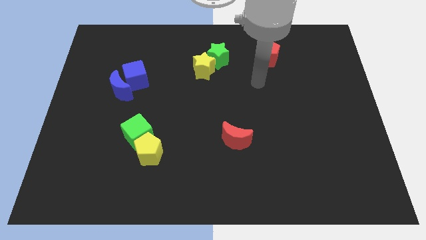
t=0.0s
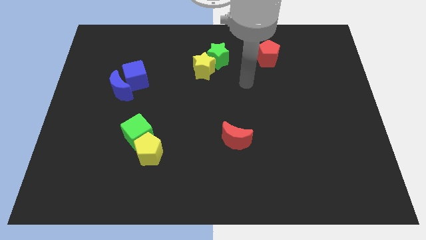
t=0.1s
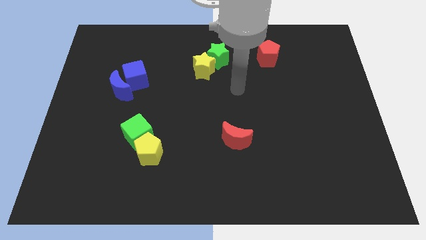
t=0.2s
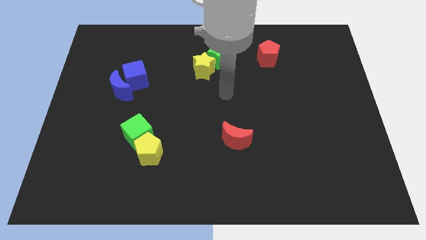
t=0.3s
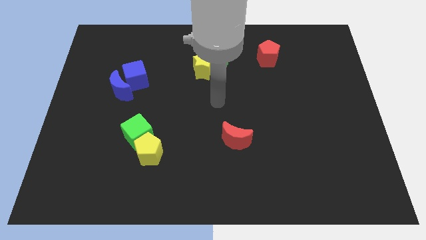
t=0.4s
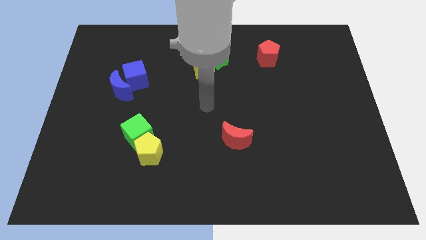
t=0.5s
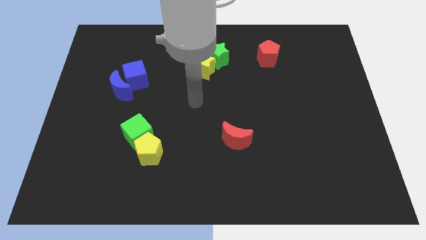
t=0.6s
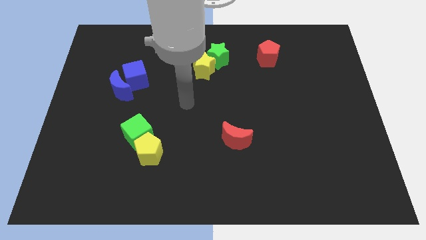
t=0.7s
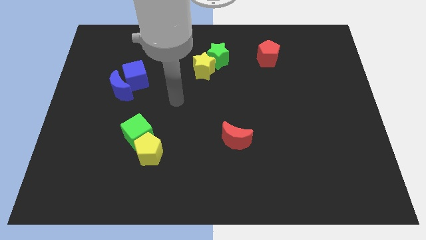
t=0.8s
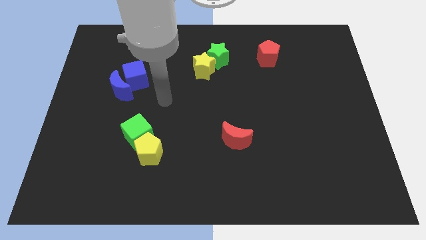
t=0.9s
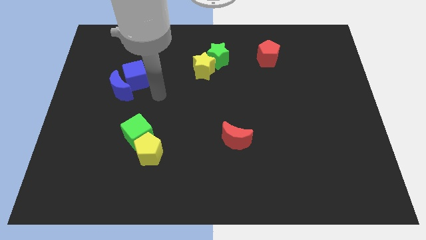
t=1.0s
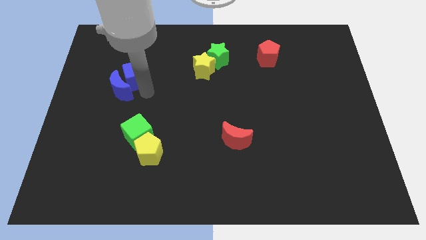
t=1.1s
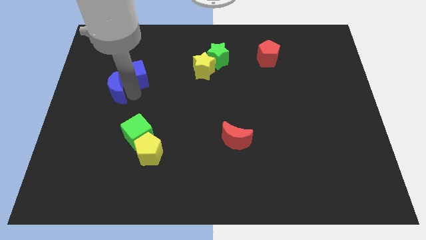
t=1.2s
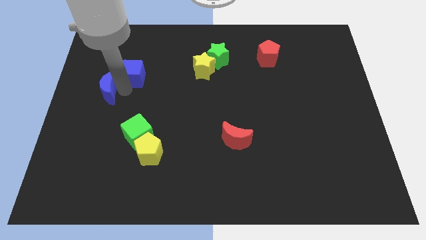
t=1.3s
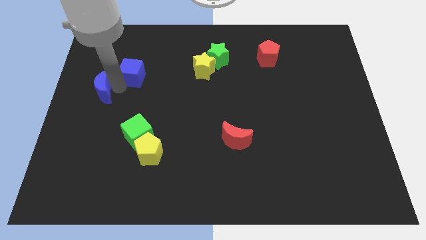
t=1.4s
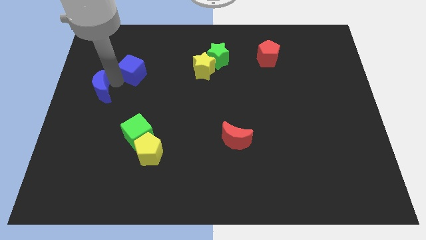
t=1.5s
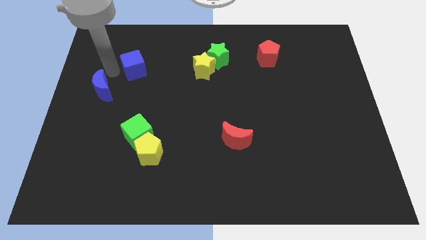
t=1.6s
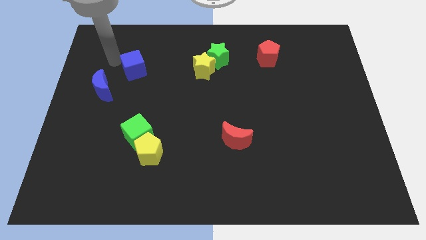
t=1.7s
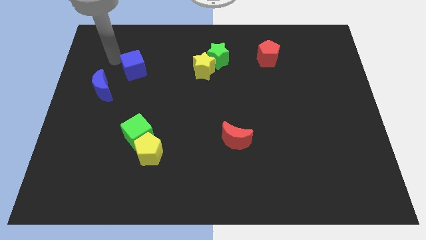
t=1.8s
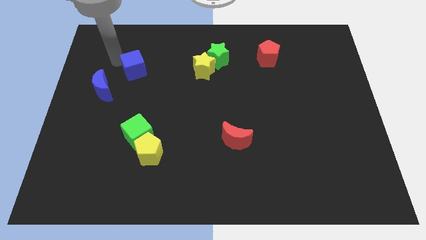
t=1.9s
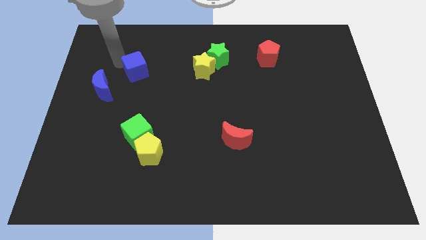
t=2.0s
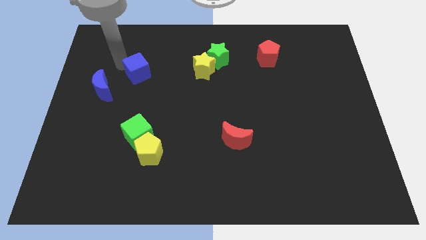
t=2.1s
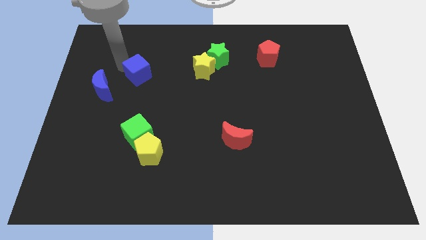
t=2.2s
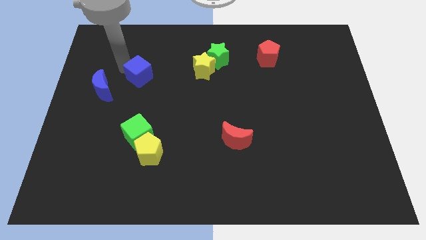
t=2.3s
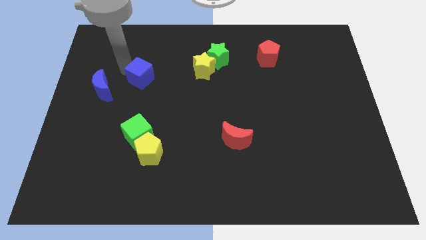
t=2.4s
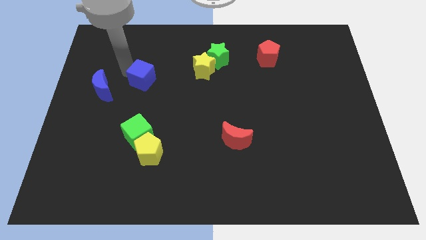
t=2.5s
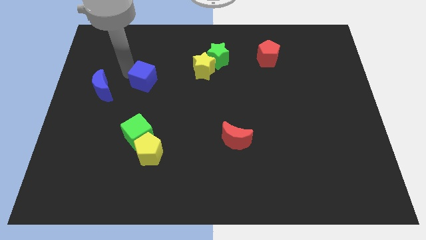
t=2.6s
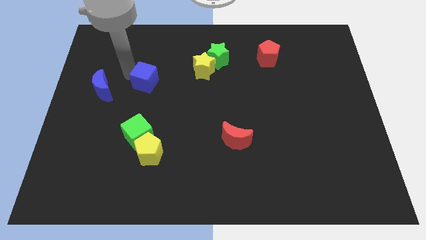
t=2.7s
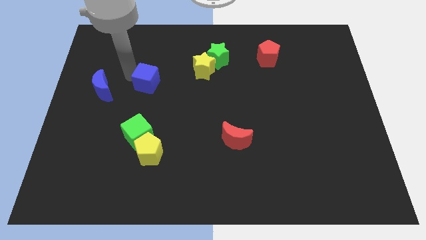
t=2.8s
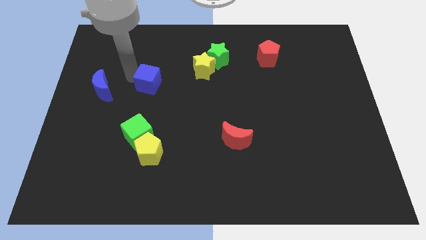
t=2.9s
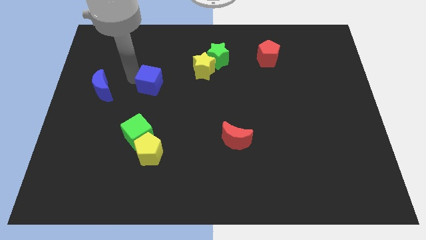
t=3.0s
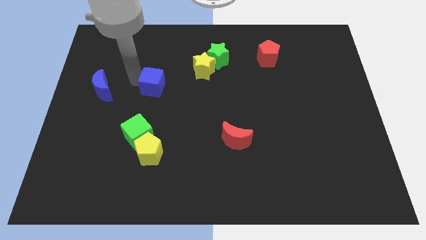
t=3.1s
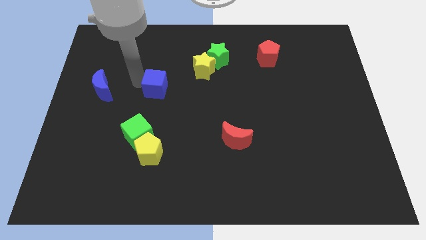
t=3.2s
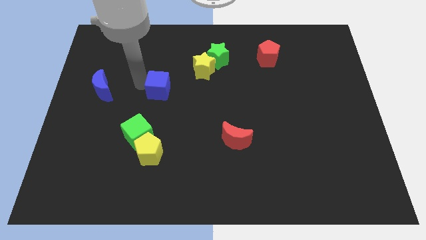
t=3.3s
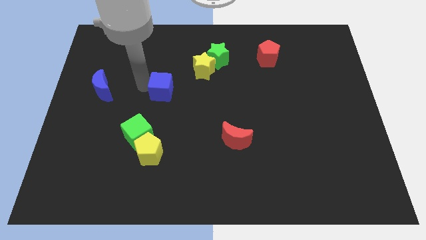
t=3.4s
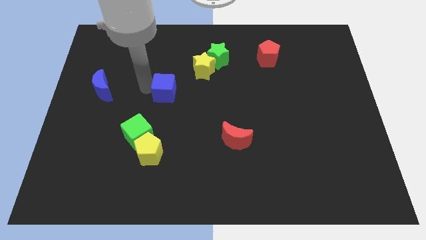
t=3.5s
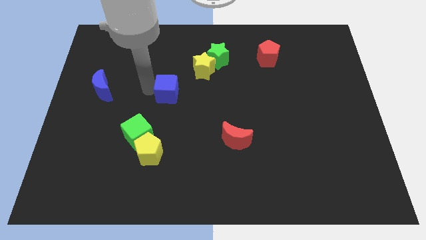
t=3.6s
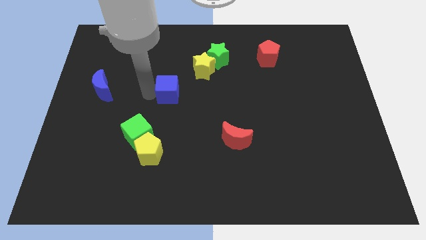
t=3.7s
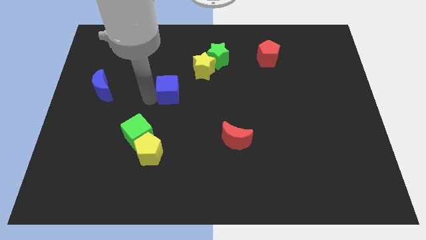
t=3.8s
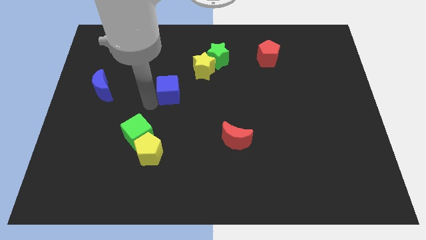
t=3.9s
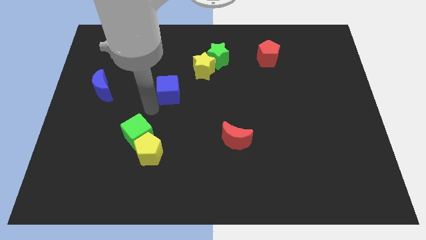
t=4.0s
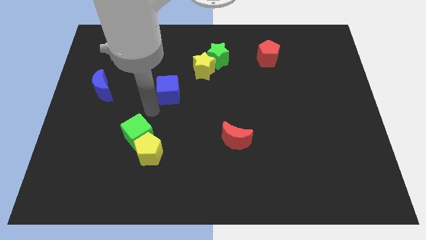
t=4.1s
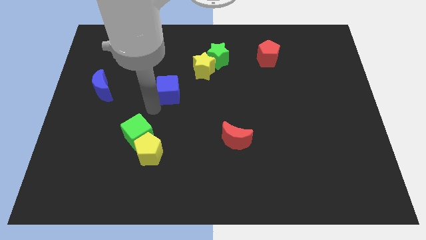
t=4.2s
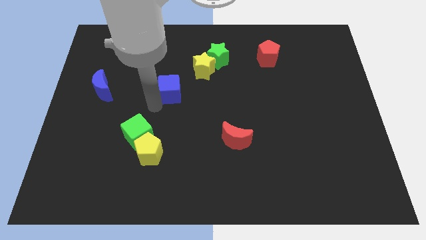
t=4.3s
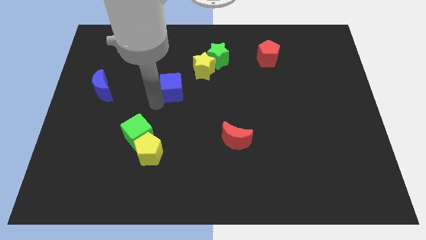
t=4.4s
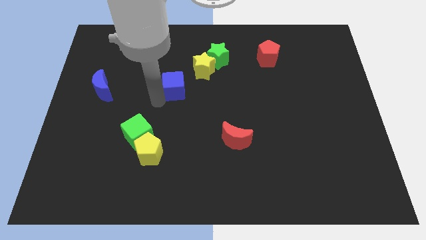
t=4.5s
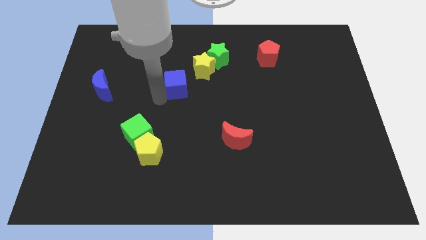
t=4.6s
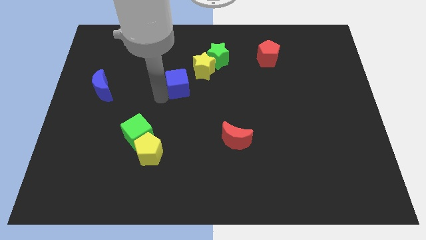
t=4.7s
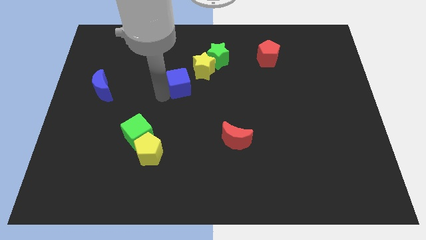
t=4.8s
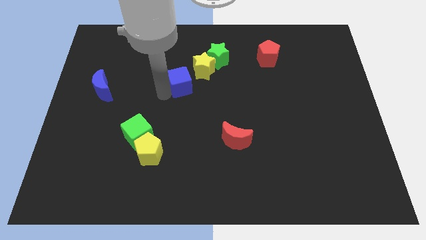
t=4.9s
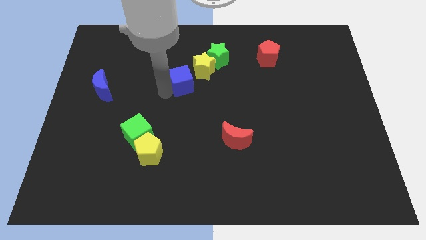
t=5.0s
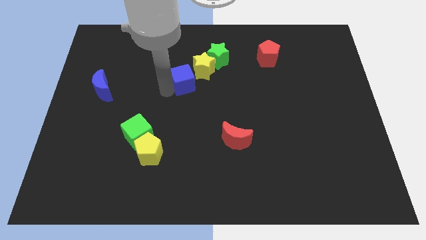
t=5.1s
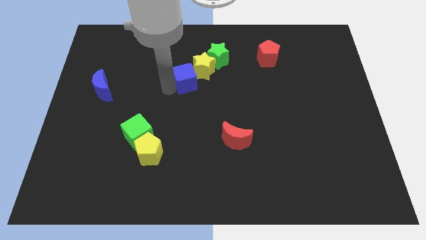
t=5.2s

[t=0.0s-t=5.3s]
slide the blue cube close to the yellow star

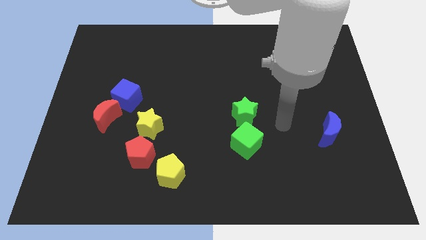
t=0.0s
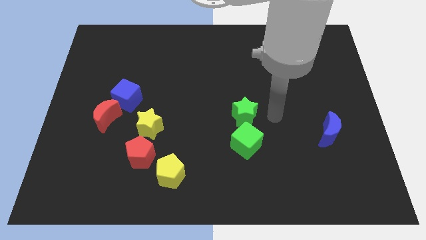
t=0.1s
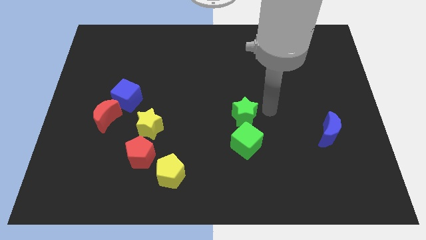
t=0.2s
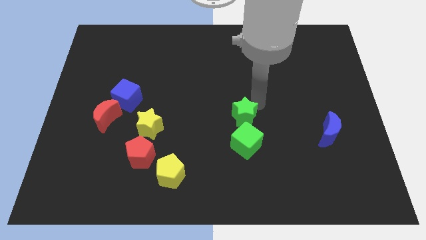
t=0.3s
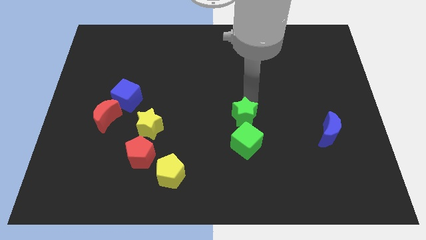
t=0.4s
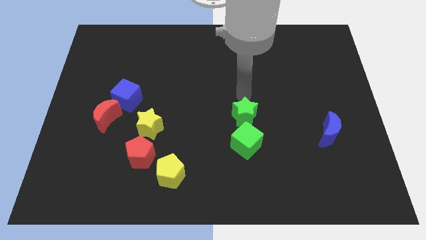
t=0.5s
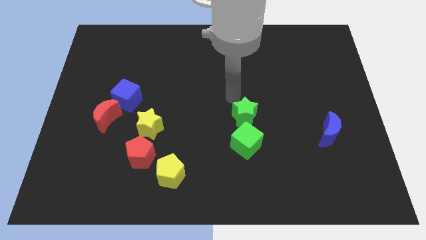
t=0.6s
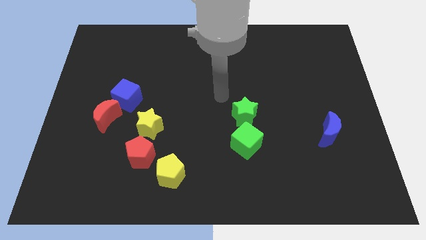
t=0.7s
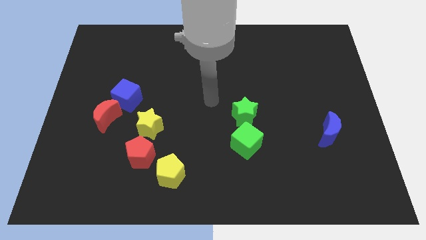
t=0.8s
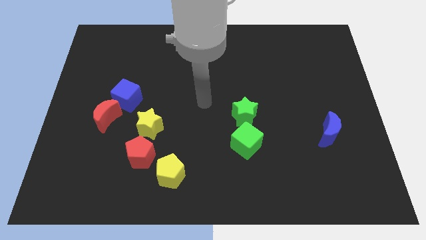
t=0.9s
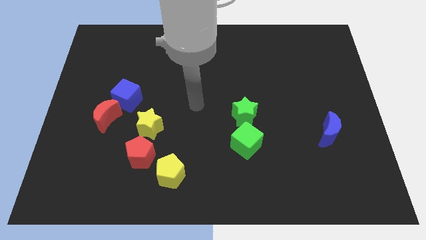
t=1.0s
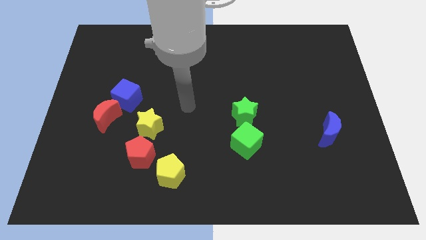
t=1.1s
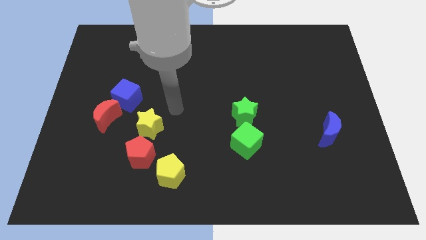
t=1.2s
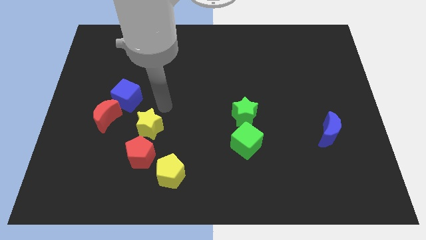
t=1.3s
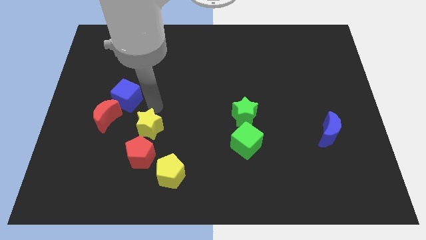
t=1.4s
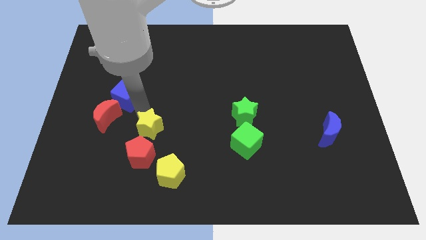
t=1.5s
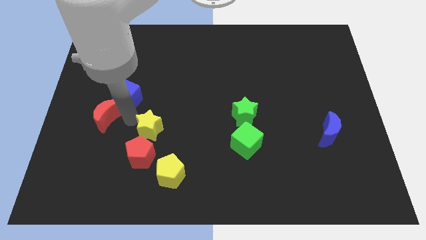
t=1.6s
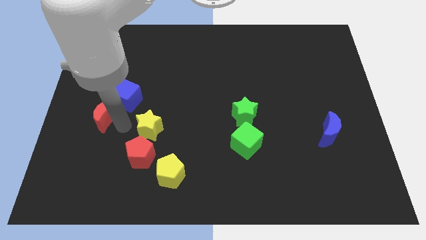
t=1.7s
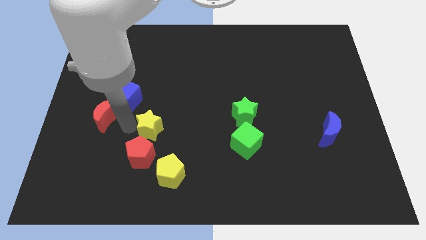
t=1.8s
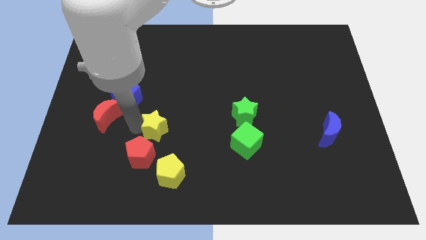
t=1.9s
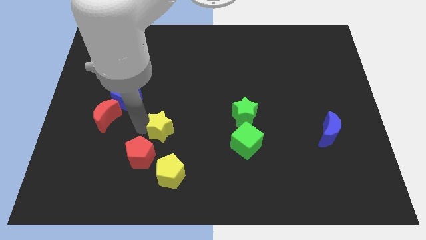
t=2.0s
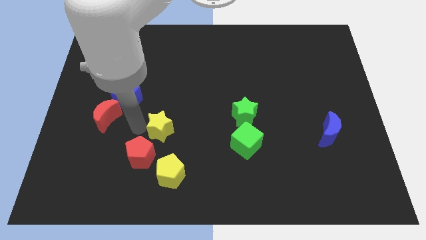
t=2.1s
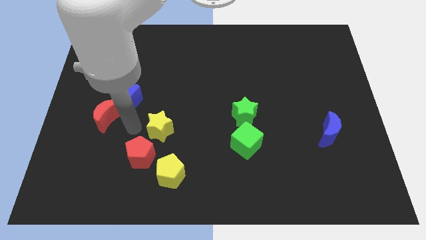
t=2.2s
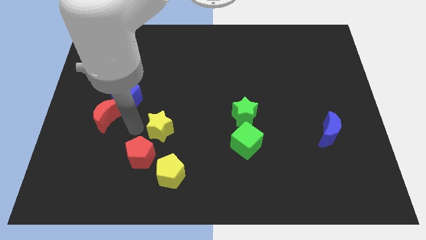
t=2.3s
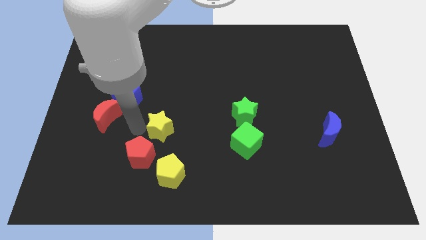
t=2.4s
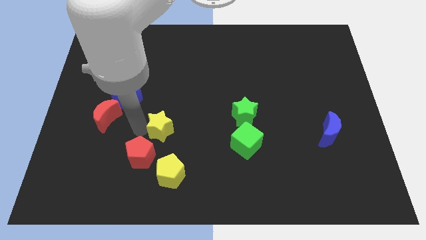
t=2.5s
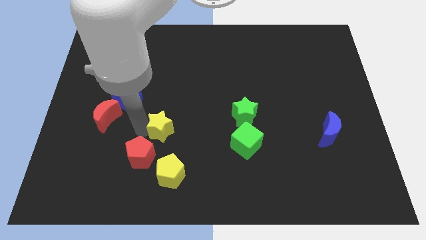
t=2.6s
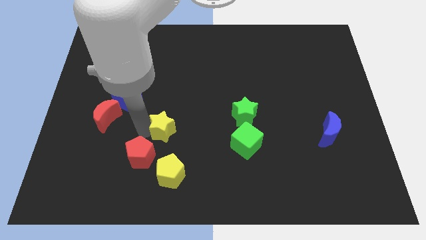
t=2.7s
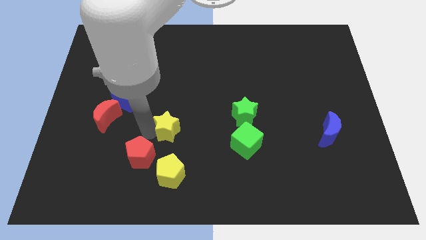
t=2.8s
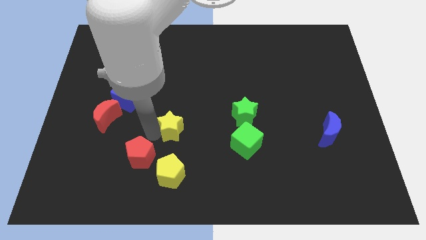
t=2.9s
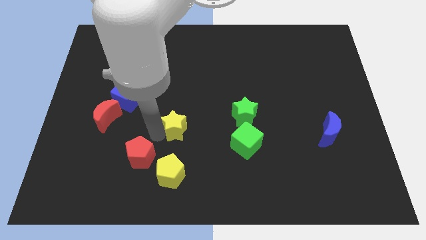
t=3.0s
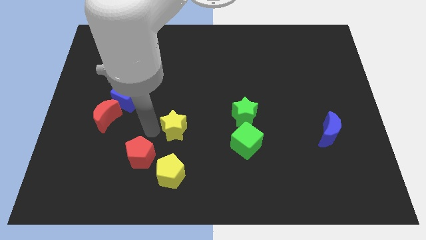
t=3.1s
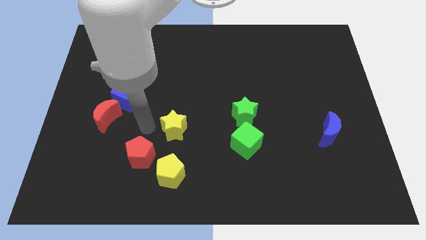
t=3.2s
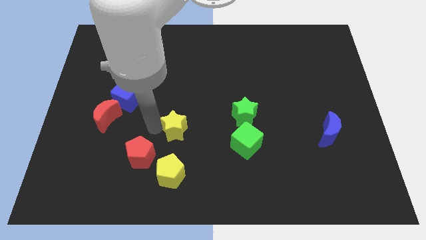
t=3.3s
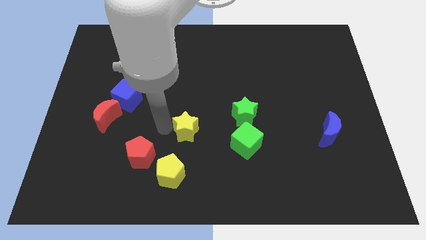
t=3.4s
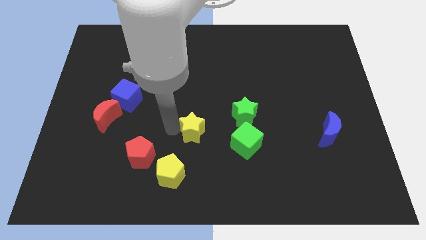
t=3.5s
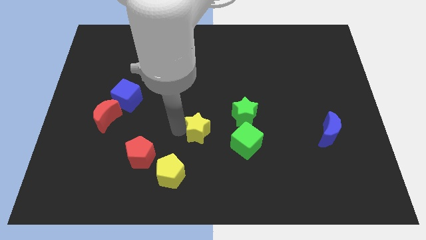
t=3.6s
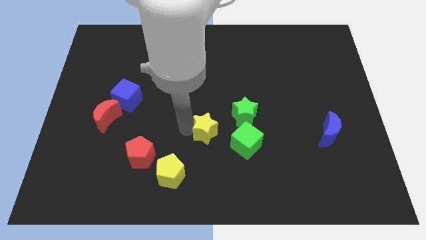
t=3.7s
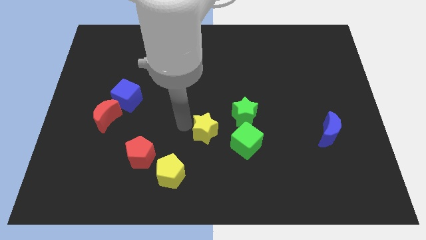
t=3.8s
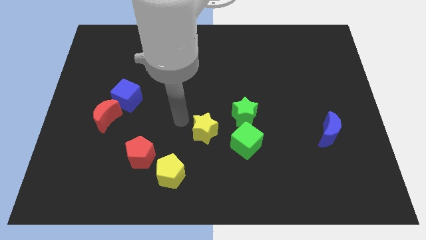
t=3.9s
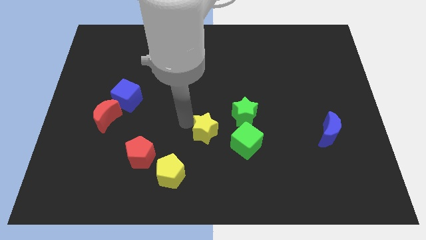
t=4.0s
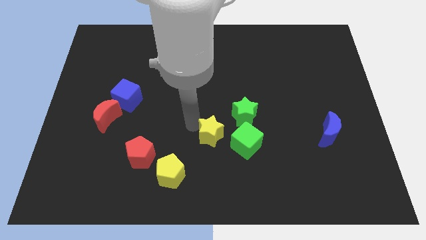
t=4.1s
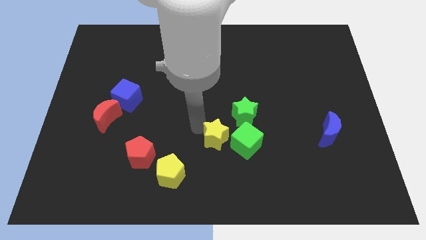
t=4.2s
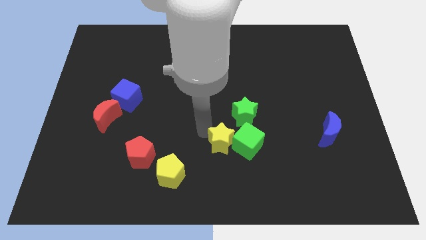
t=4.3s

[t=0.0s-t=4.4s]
move the yellow star towards the green cube
